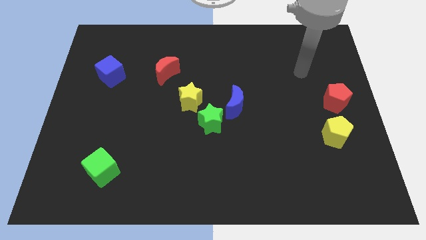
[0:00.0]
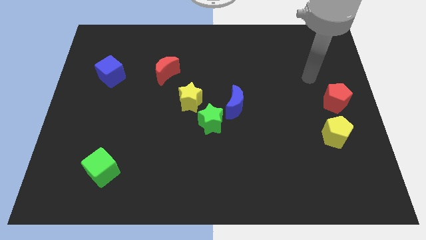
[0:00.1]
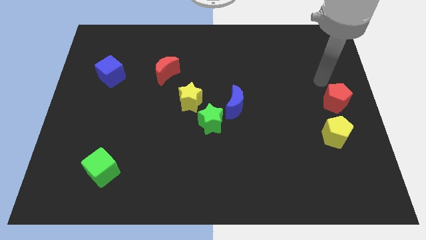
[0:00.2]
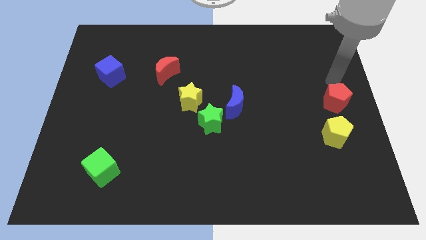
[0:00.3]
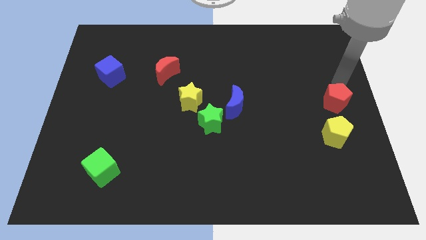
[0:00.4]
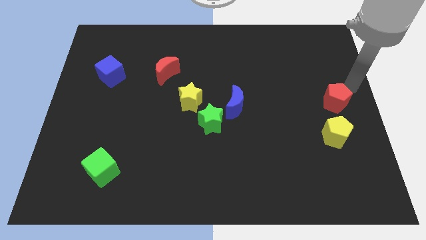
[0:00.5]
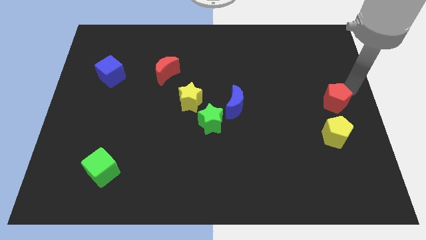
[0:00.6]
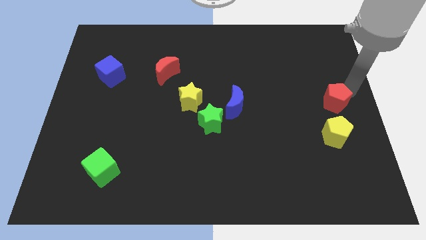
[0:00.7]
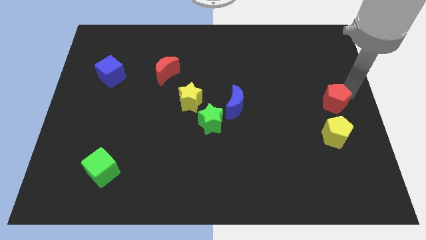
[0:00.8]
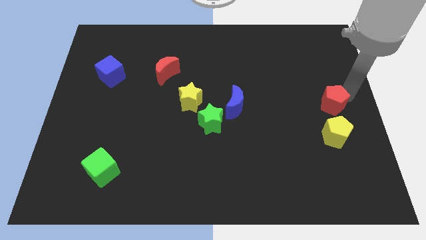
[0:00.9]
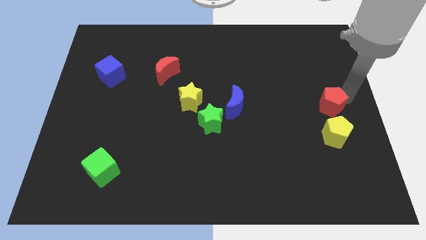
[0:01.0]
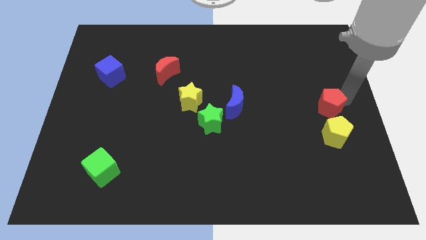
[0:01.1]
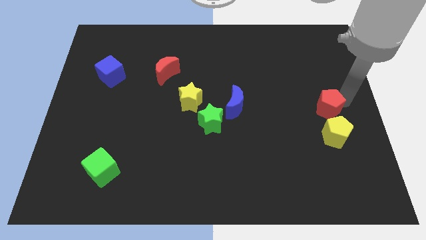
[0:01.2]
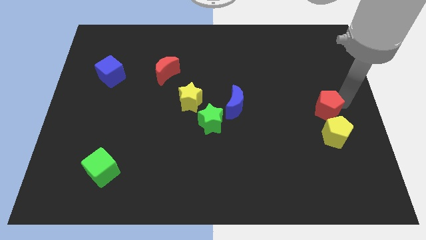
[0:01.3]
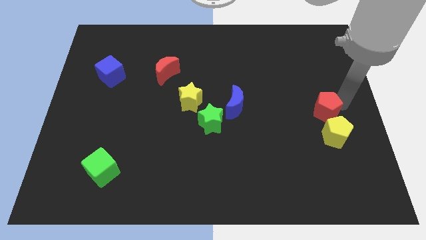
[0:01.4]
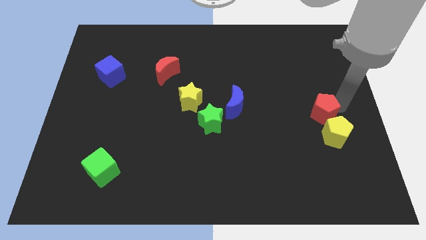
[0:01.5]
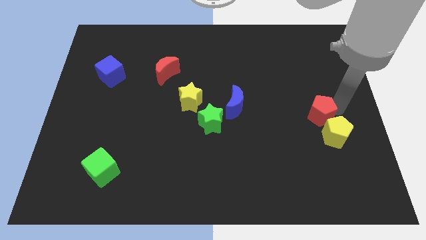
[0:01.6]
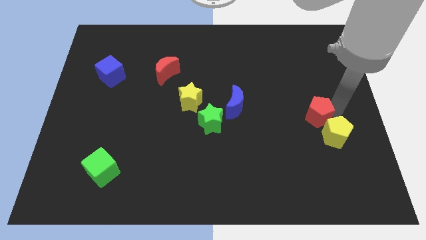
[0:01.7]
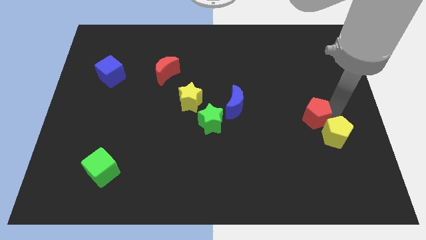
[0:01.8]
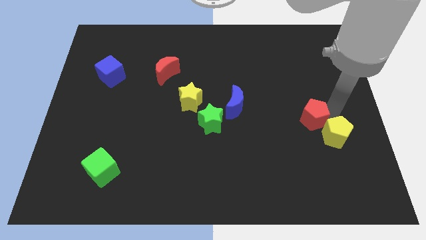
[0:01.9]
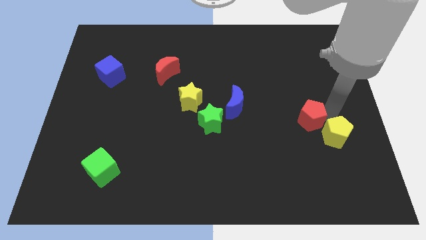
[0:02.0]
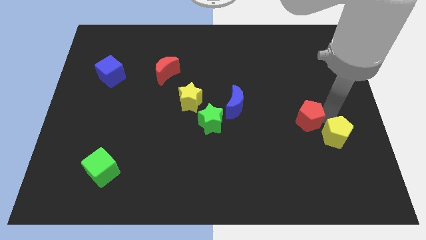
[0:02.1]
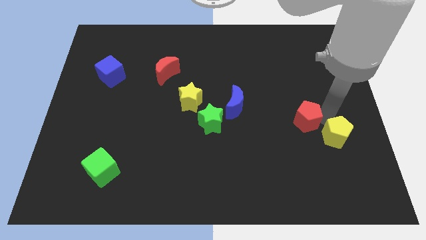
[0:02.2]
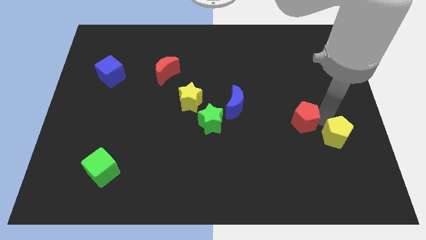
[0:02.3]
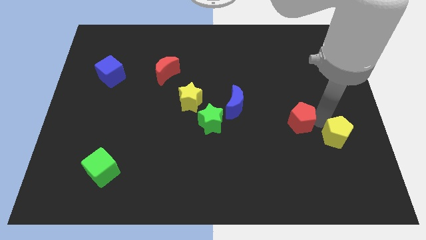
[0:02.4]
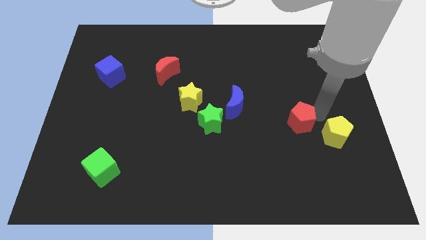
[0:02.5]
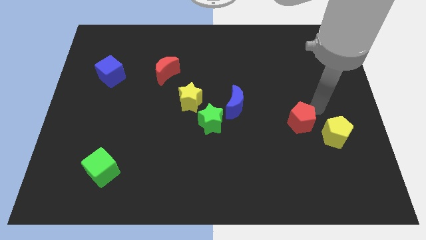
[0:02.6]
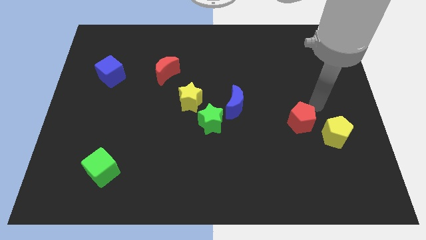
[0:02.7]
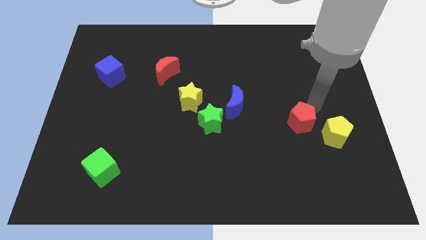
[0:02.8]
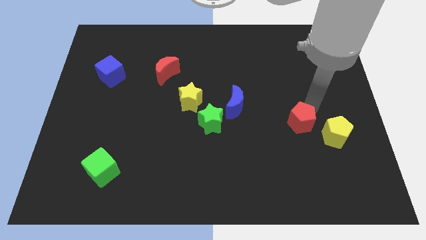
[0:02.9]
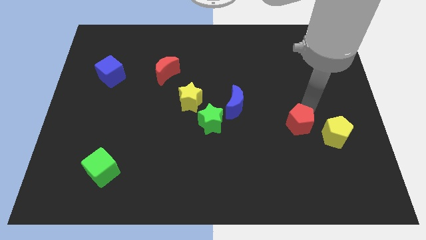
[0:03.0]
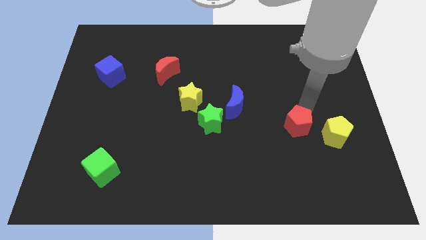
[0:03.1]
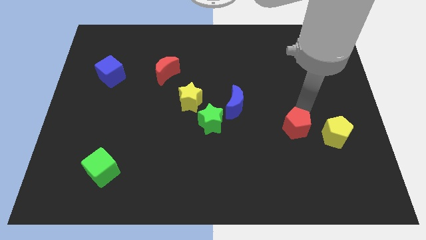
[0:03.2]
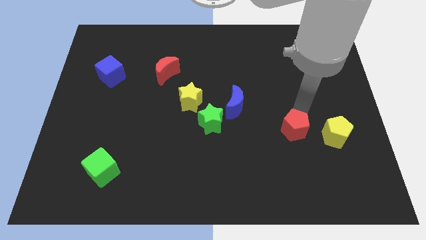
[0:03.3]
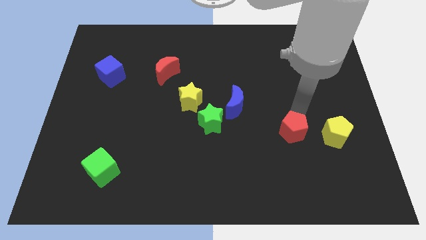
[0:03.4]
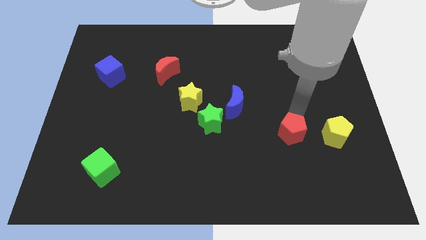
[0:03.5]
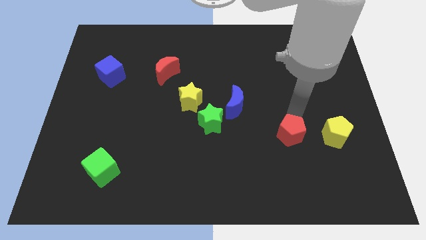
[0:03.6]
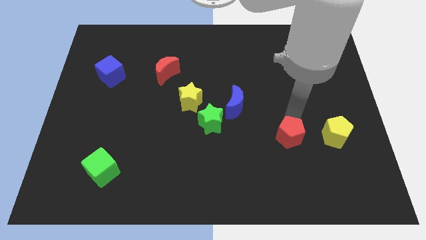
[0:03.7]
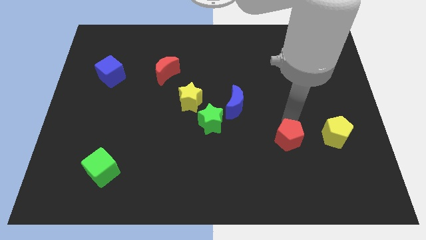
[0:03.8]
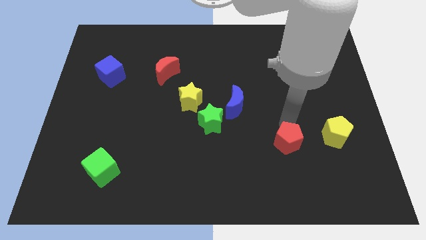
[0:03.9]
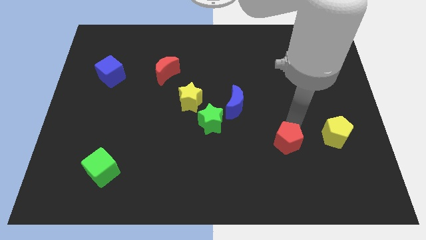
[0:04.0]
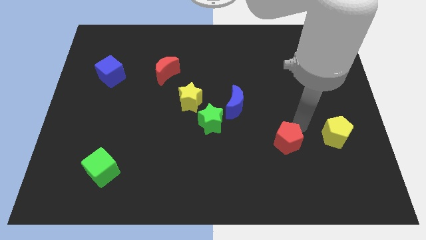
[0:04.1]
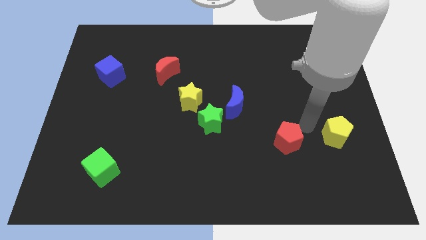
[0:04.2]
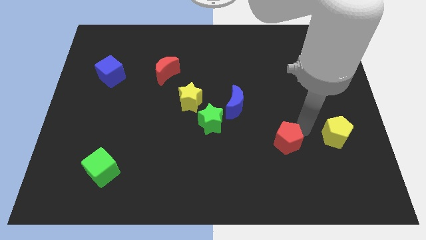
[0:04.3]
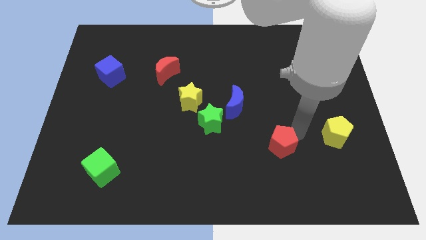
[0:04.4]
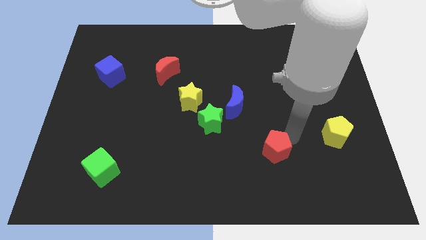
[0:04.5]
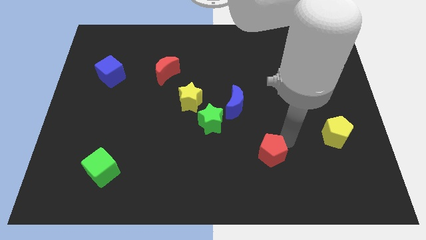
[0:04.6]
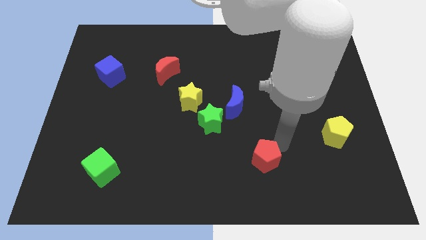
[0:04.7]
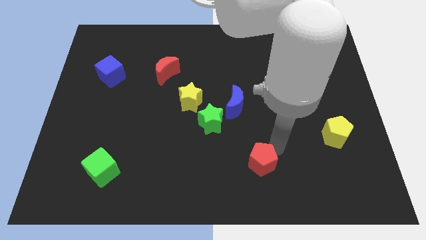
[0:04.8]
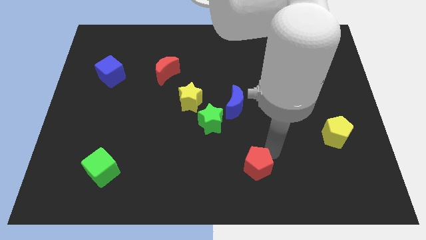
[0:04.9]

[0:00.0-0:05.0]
slide the red pentagon to the bottom

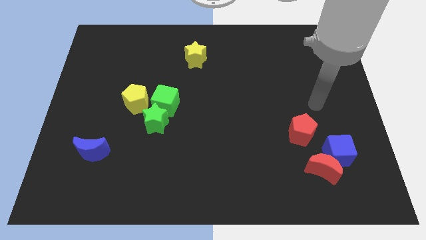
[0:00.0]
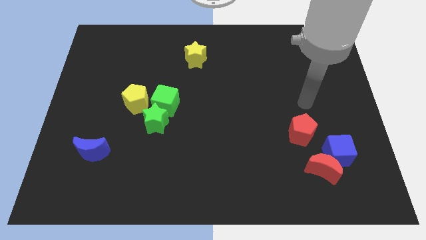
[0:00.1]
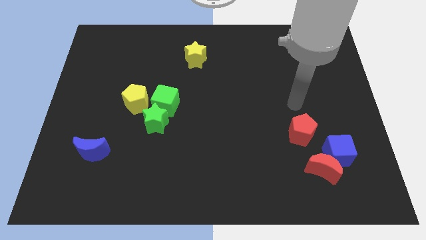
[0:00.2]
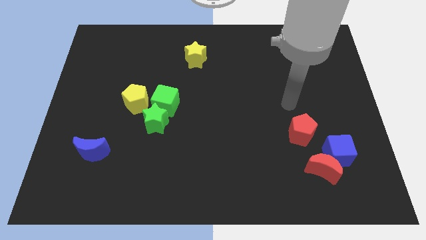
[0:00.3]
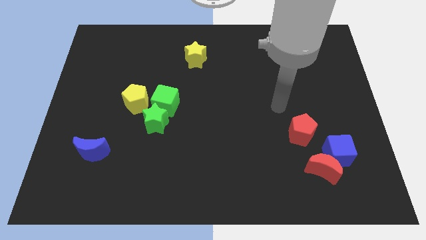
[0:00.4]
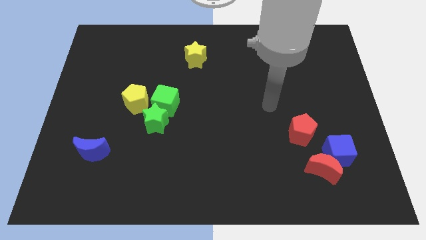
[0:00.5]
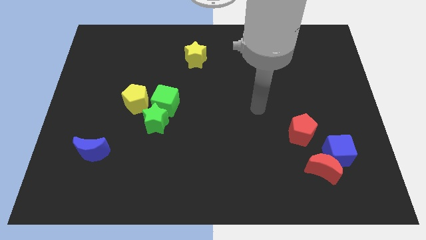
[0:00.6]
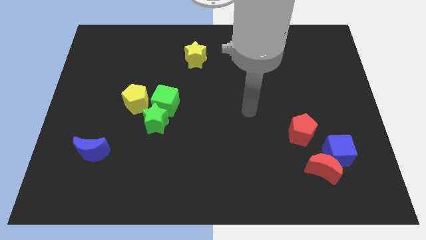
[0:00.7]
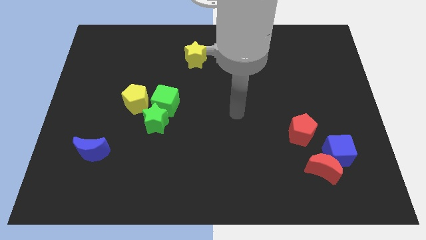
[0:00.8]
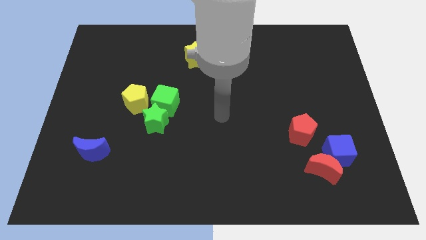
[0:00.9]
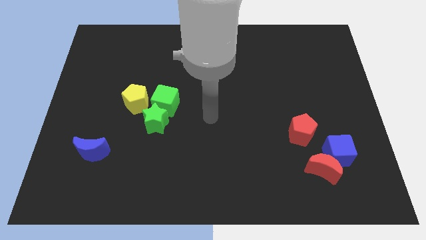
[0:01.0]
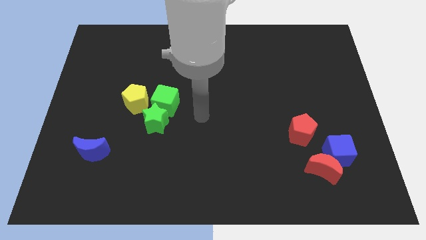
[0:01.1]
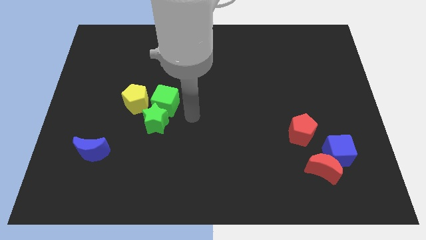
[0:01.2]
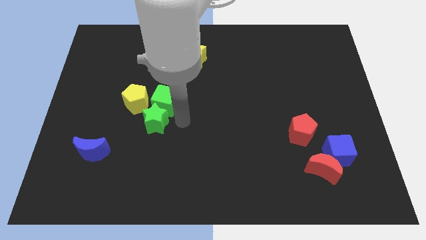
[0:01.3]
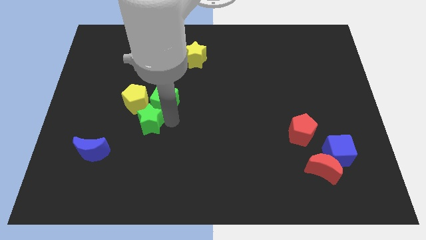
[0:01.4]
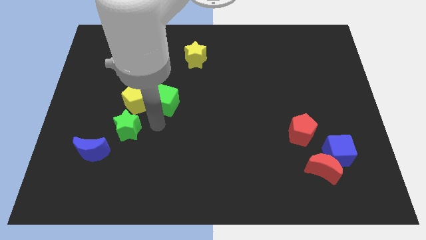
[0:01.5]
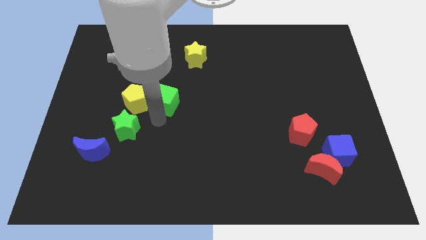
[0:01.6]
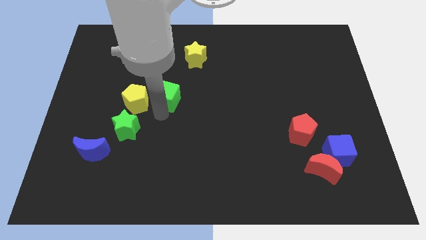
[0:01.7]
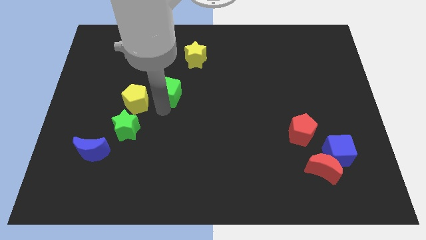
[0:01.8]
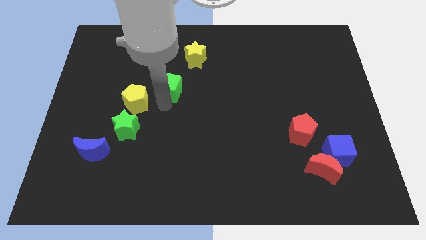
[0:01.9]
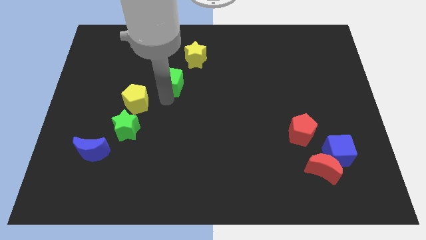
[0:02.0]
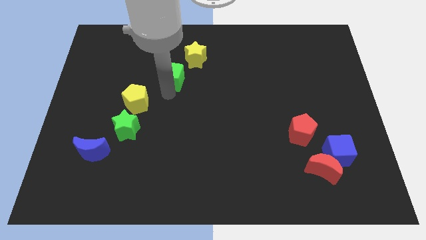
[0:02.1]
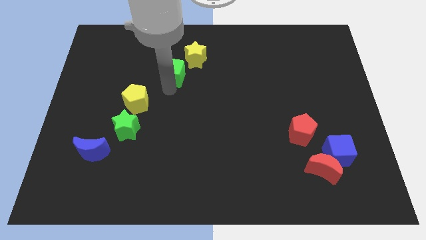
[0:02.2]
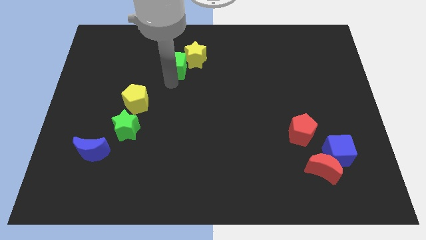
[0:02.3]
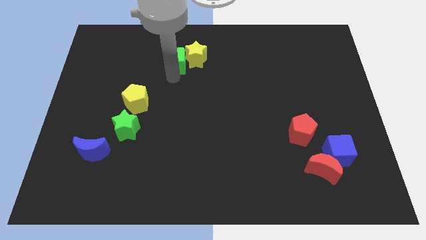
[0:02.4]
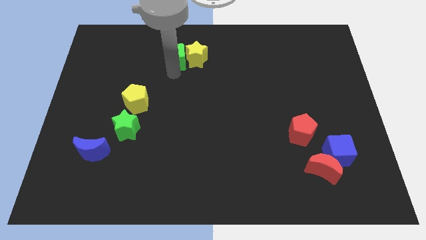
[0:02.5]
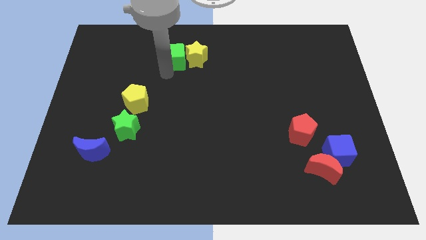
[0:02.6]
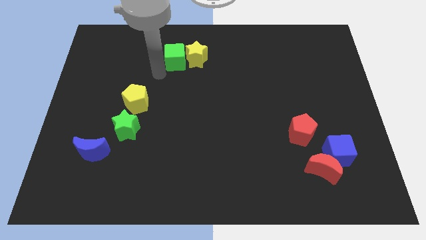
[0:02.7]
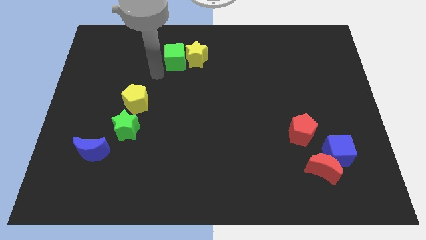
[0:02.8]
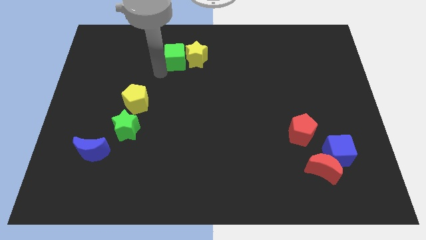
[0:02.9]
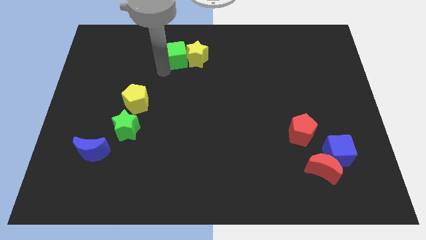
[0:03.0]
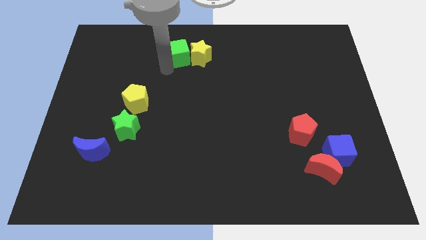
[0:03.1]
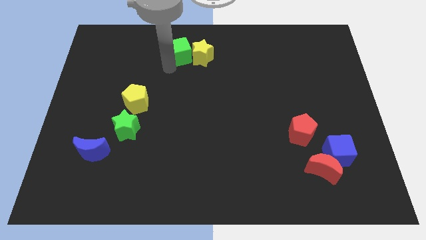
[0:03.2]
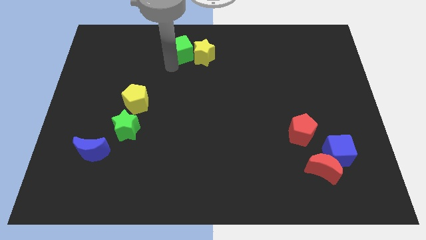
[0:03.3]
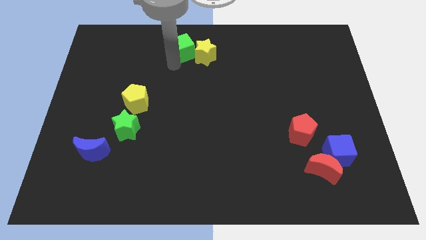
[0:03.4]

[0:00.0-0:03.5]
slide the green cube to the towards your base
